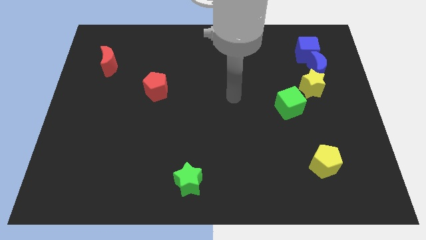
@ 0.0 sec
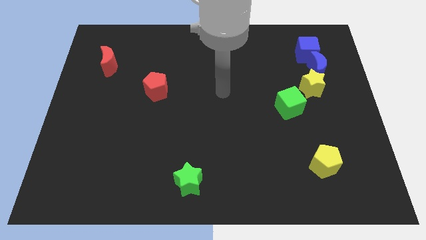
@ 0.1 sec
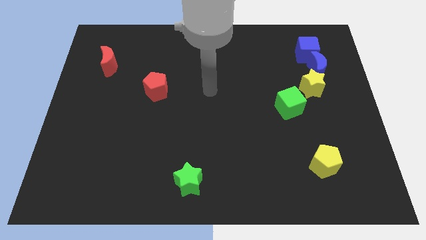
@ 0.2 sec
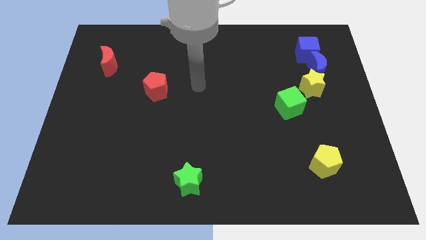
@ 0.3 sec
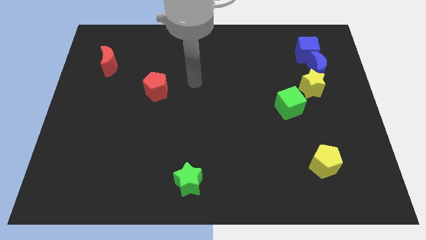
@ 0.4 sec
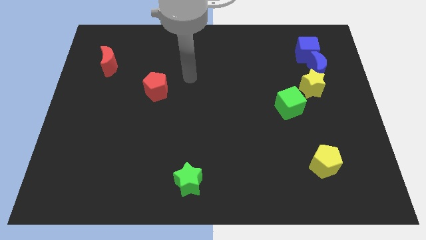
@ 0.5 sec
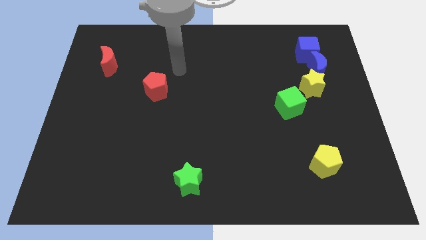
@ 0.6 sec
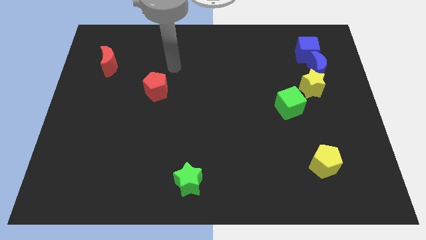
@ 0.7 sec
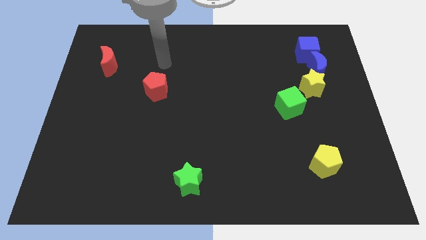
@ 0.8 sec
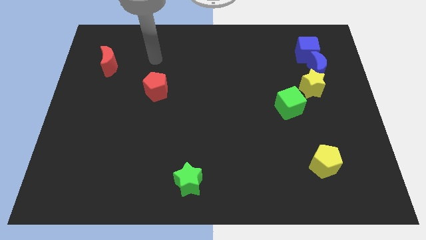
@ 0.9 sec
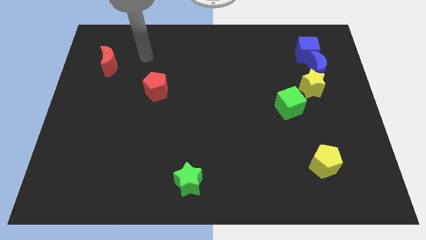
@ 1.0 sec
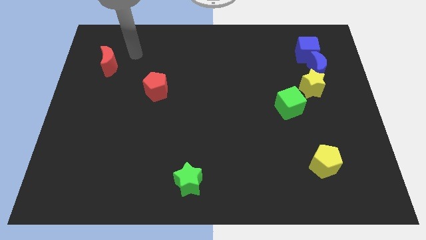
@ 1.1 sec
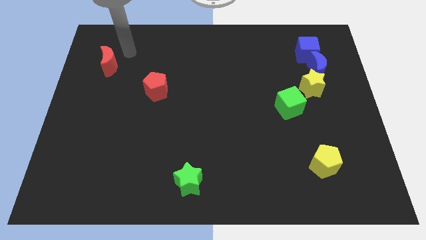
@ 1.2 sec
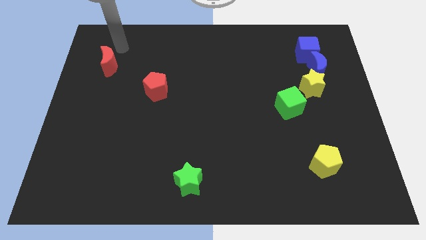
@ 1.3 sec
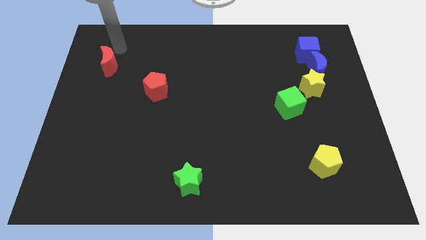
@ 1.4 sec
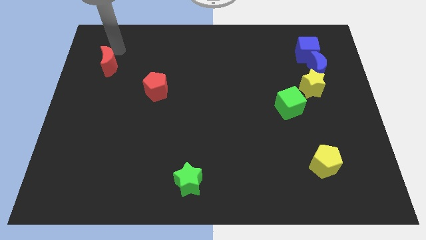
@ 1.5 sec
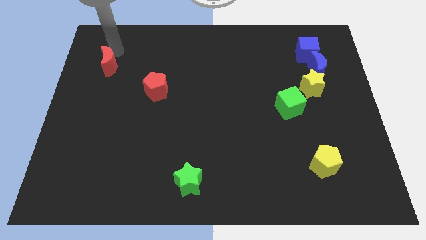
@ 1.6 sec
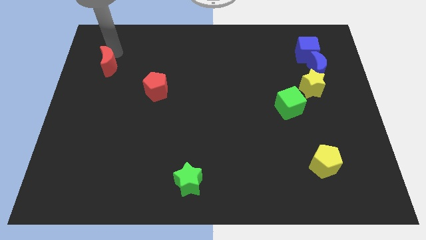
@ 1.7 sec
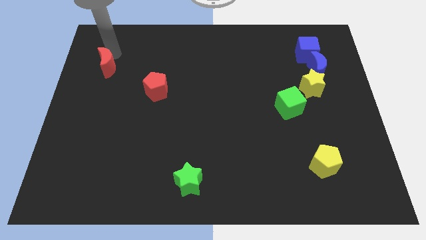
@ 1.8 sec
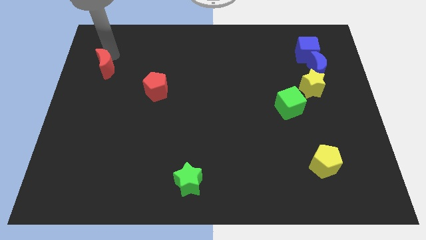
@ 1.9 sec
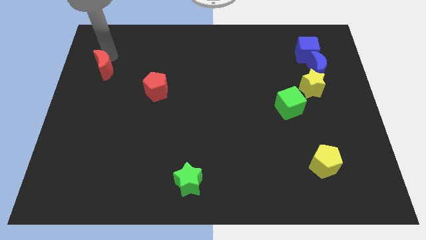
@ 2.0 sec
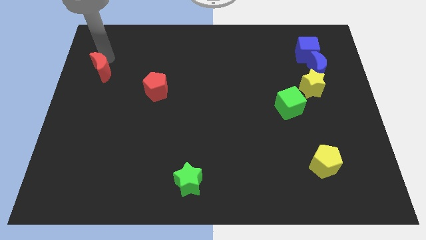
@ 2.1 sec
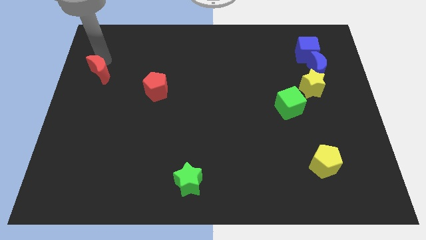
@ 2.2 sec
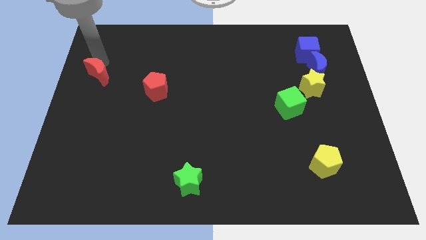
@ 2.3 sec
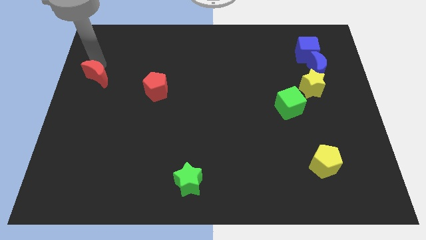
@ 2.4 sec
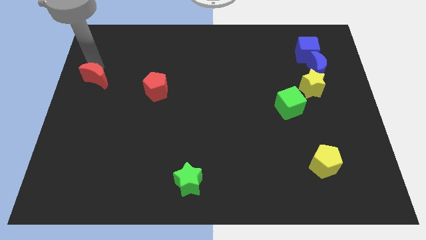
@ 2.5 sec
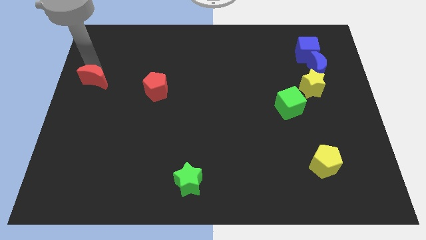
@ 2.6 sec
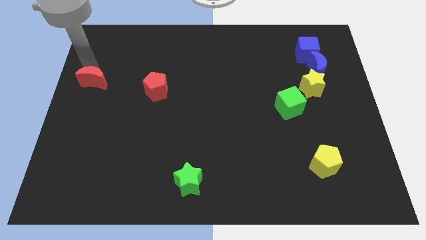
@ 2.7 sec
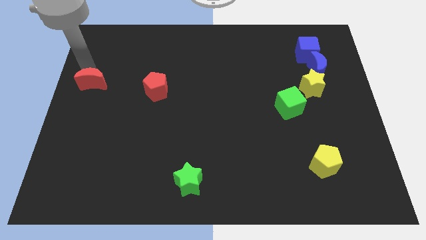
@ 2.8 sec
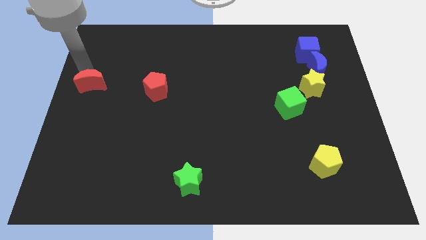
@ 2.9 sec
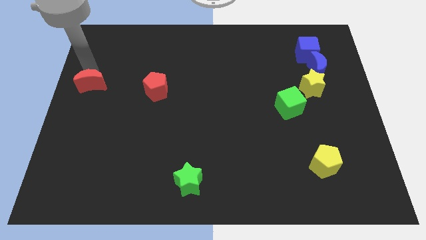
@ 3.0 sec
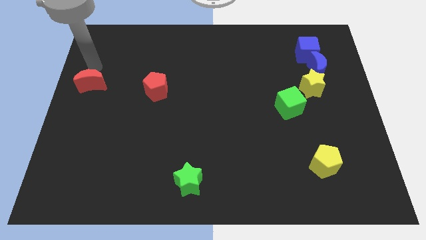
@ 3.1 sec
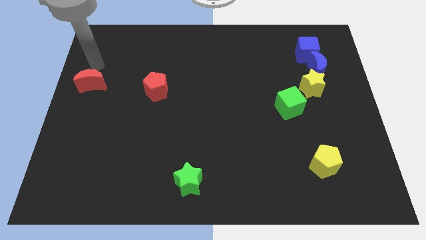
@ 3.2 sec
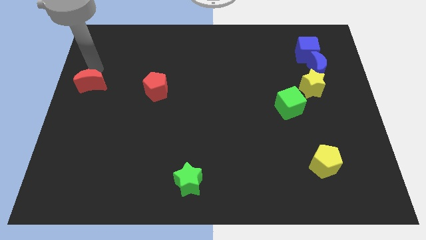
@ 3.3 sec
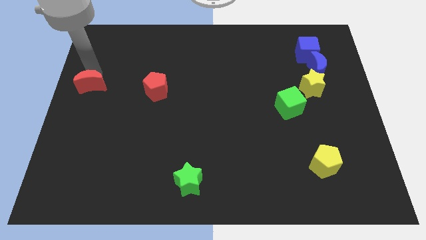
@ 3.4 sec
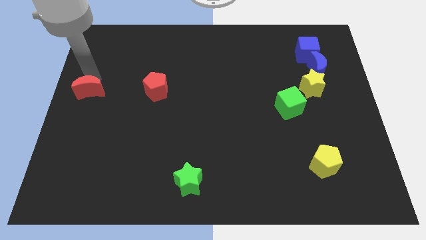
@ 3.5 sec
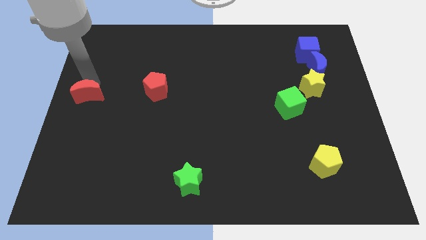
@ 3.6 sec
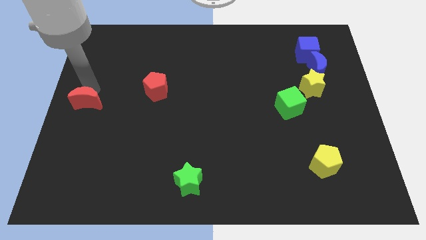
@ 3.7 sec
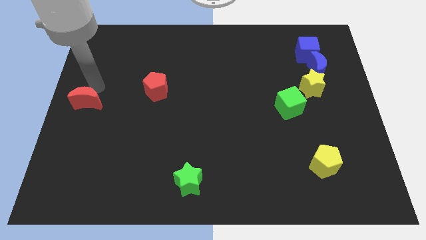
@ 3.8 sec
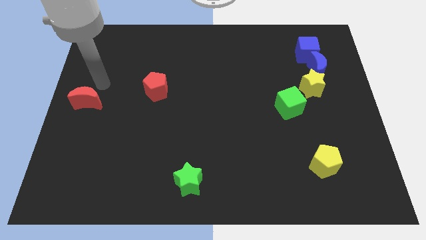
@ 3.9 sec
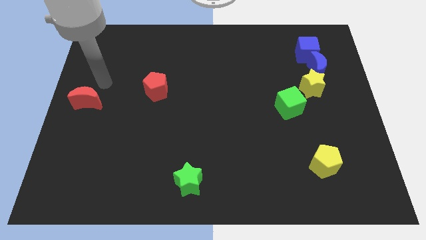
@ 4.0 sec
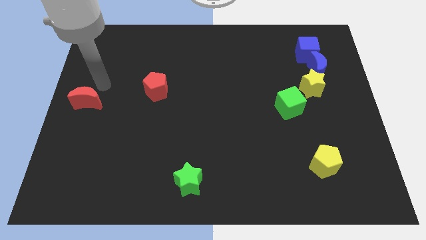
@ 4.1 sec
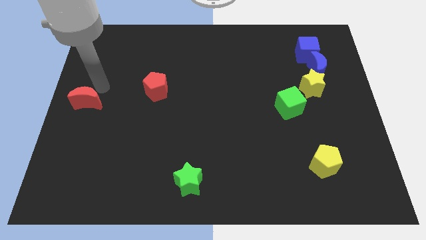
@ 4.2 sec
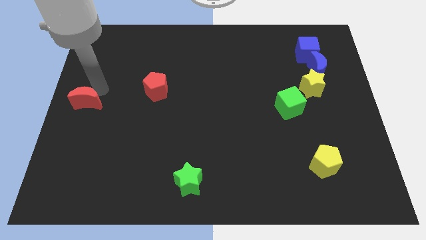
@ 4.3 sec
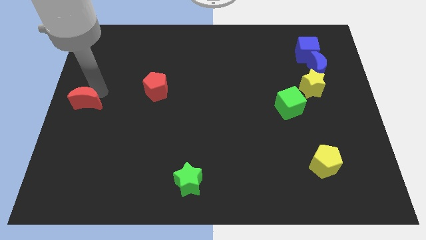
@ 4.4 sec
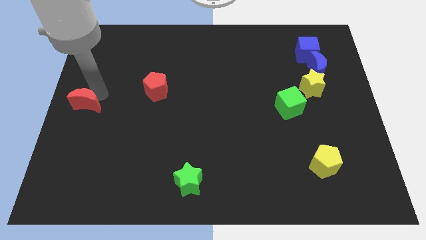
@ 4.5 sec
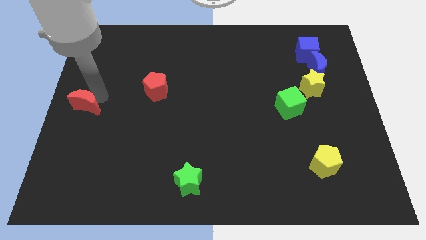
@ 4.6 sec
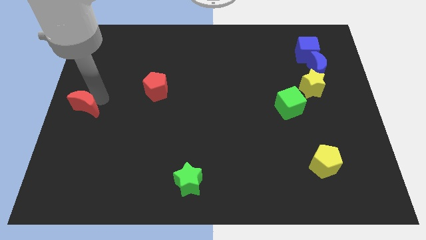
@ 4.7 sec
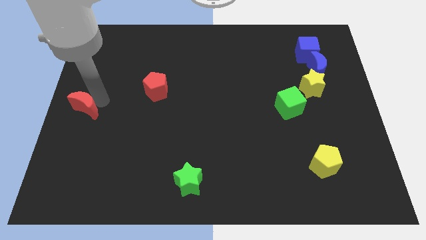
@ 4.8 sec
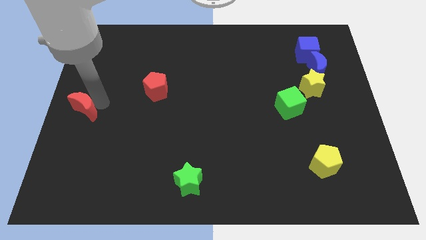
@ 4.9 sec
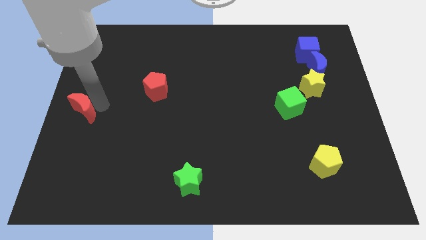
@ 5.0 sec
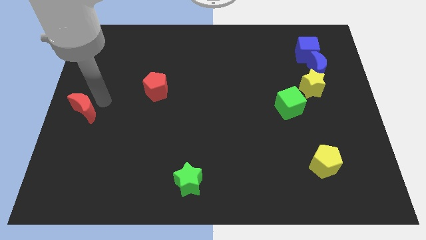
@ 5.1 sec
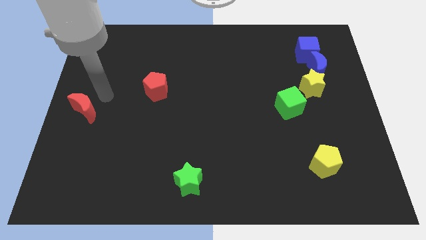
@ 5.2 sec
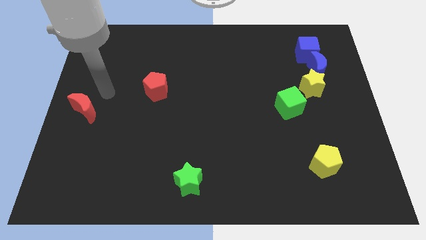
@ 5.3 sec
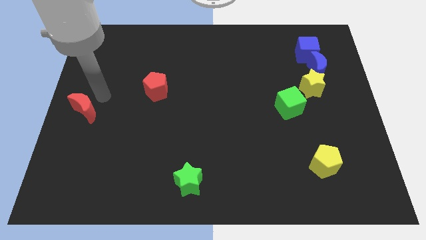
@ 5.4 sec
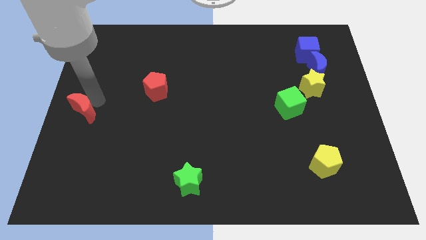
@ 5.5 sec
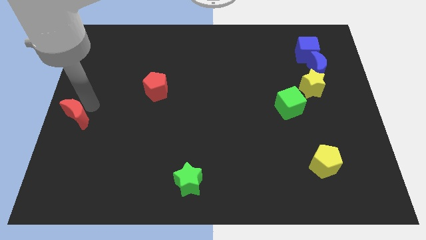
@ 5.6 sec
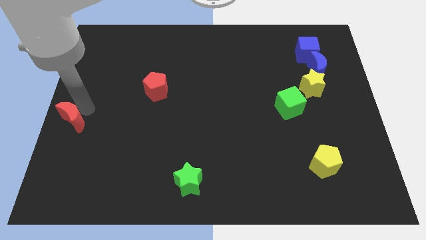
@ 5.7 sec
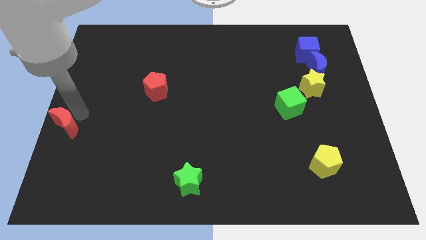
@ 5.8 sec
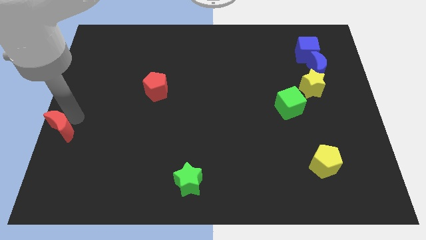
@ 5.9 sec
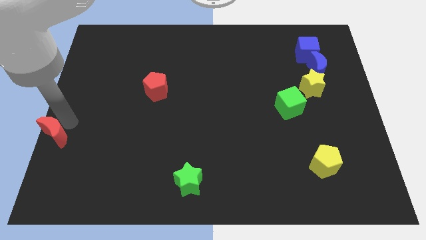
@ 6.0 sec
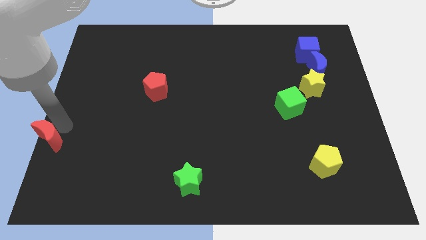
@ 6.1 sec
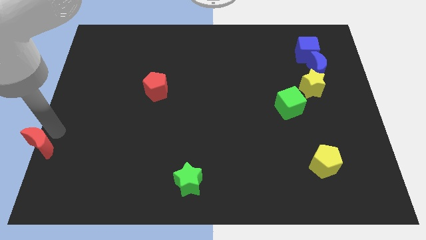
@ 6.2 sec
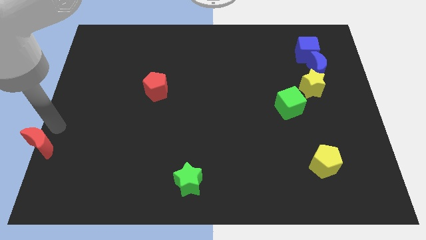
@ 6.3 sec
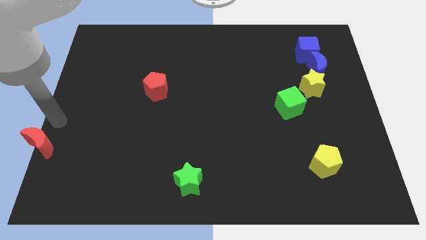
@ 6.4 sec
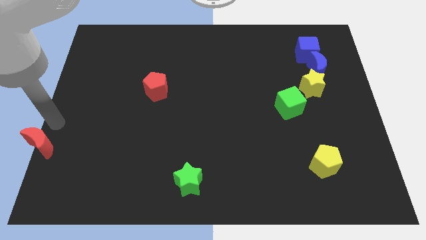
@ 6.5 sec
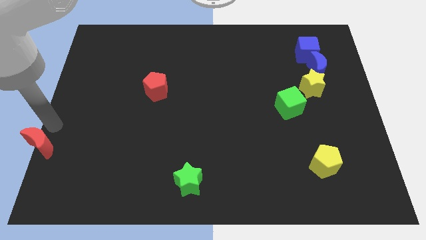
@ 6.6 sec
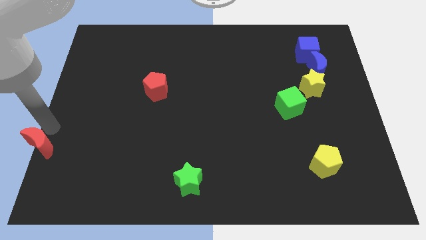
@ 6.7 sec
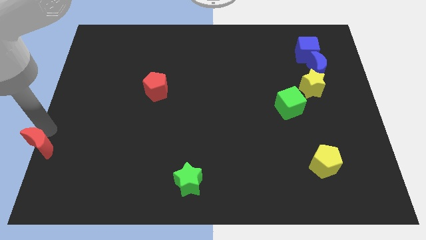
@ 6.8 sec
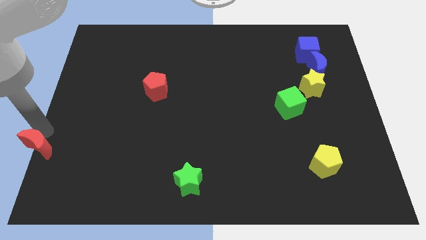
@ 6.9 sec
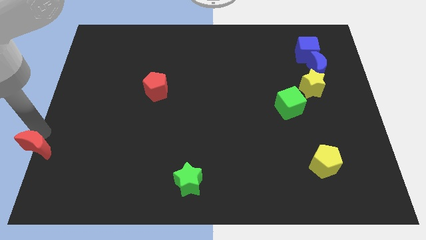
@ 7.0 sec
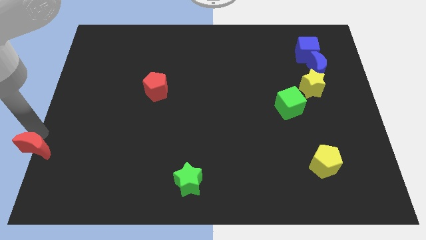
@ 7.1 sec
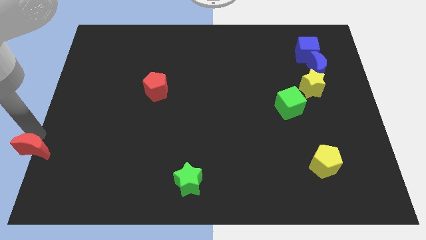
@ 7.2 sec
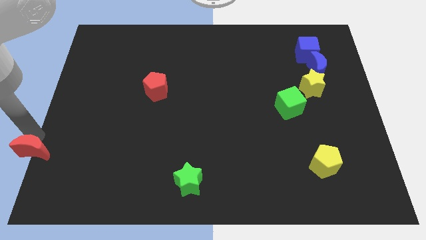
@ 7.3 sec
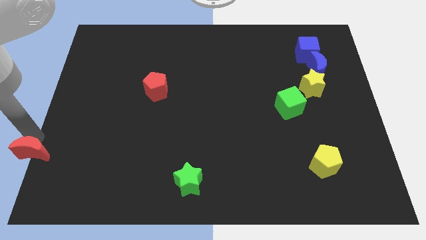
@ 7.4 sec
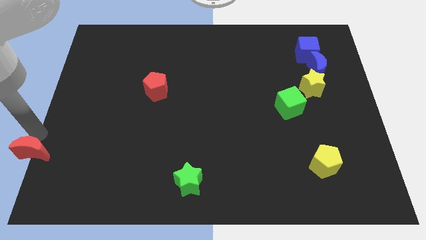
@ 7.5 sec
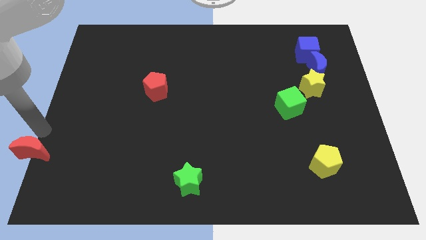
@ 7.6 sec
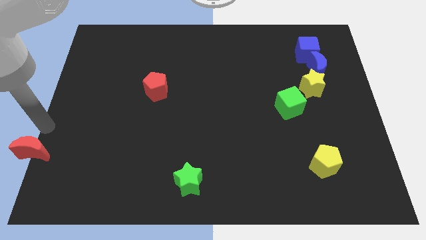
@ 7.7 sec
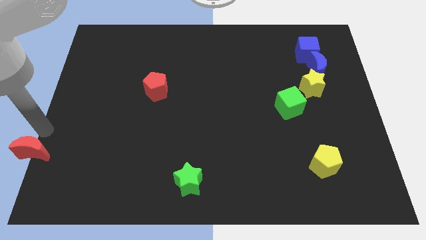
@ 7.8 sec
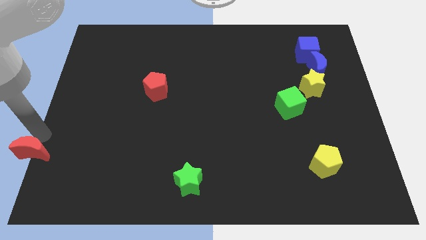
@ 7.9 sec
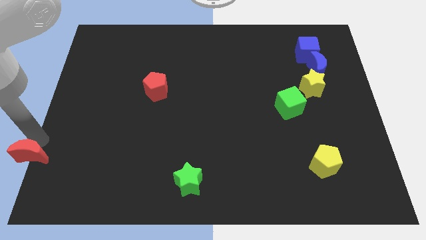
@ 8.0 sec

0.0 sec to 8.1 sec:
push the red moon to the lower left corner

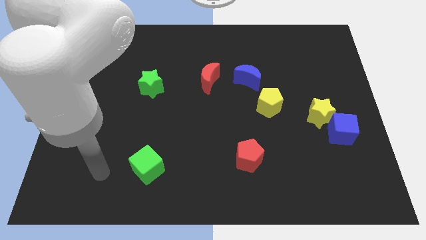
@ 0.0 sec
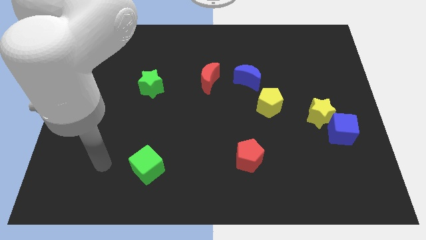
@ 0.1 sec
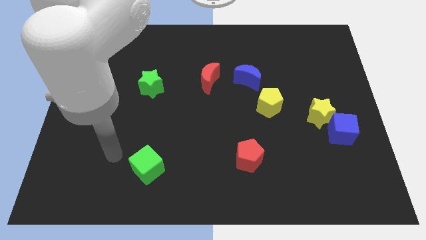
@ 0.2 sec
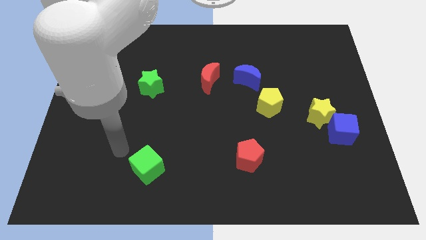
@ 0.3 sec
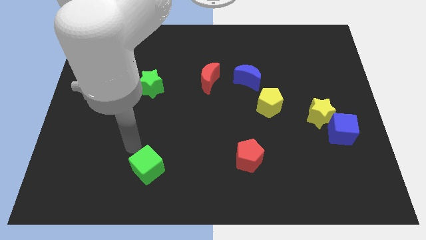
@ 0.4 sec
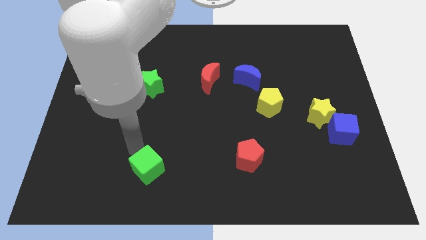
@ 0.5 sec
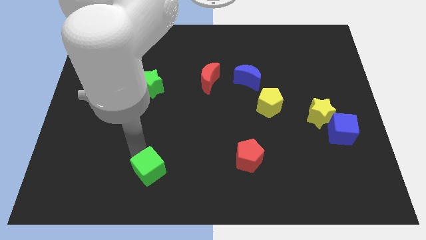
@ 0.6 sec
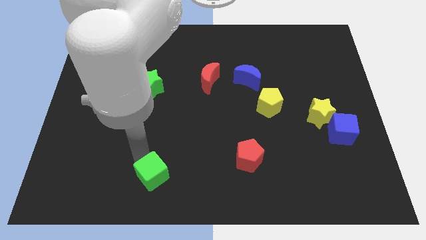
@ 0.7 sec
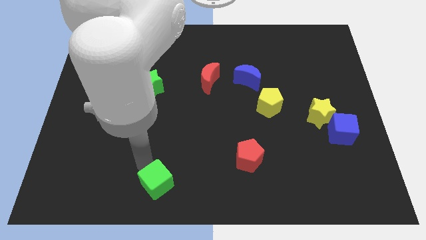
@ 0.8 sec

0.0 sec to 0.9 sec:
move the green cube to the bottom
